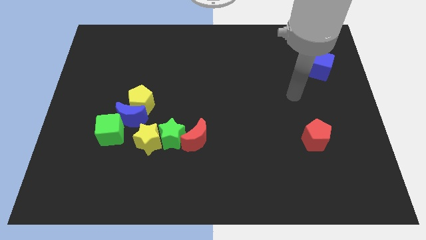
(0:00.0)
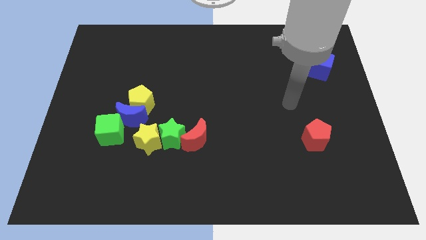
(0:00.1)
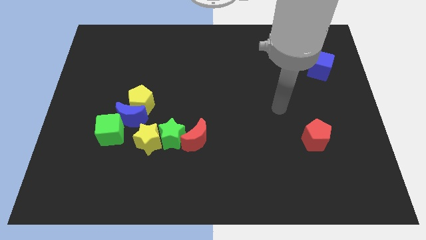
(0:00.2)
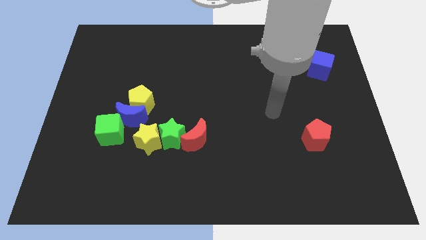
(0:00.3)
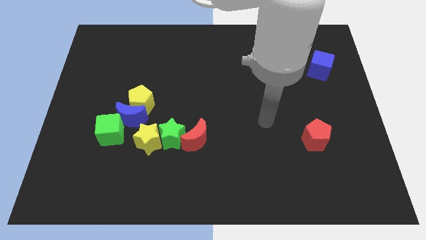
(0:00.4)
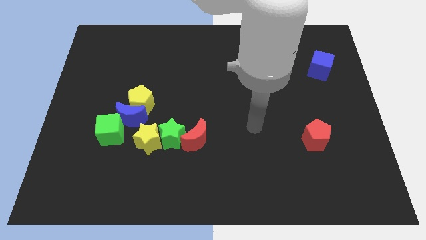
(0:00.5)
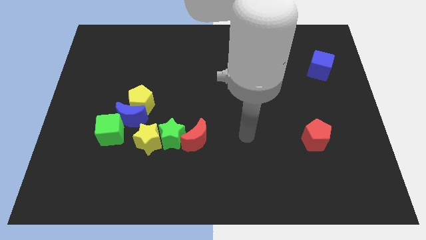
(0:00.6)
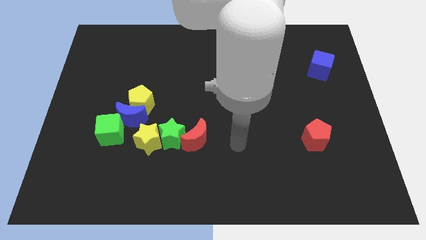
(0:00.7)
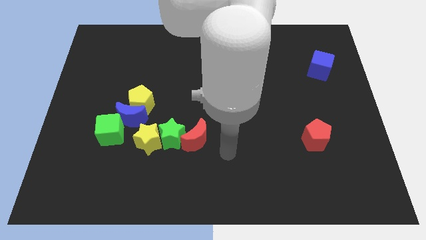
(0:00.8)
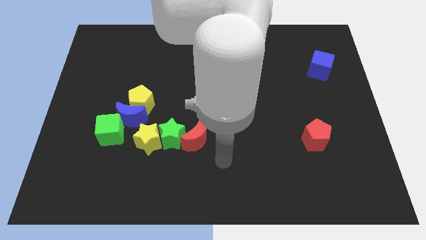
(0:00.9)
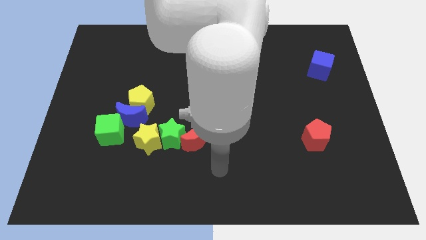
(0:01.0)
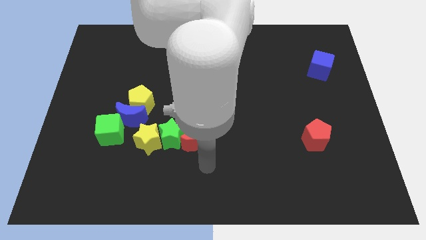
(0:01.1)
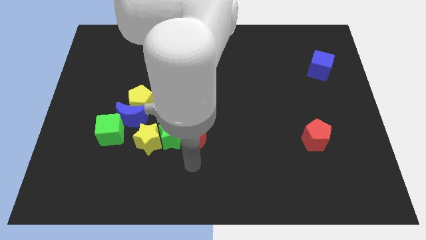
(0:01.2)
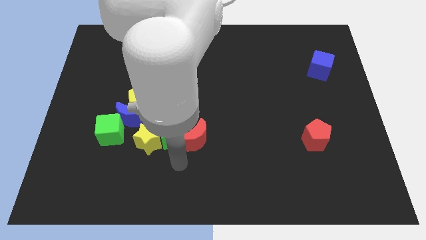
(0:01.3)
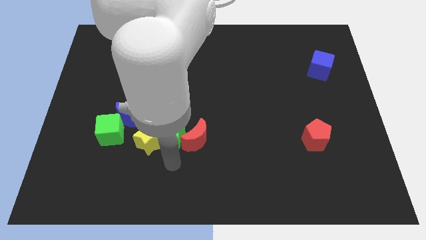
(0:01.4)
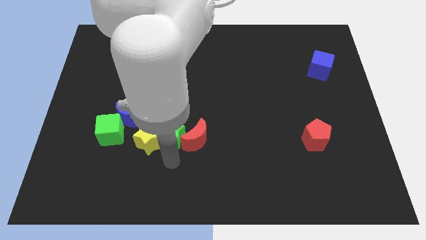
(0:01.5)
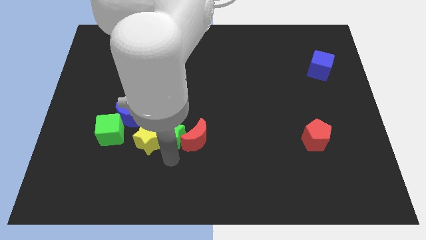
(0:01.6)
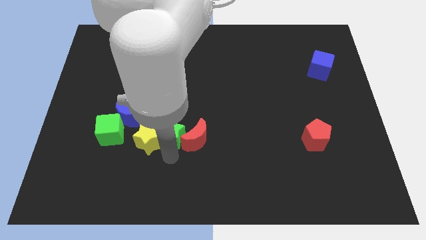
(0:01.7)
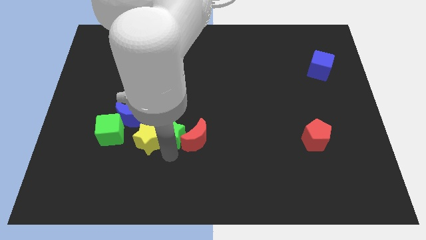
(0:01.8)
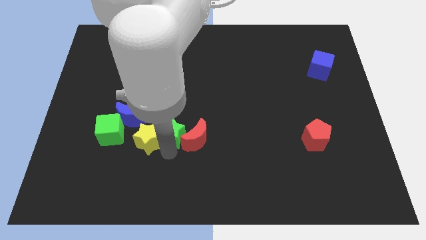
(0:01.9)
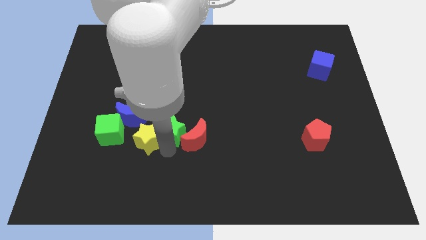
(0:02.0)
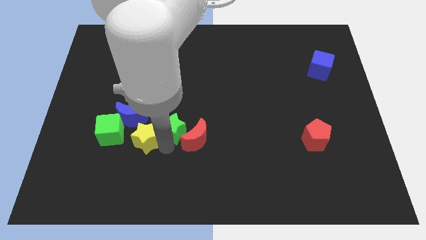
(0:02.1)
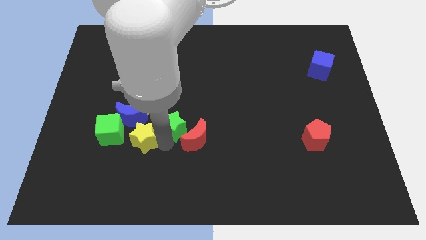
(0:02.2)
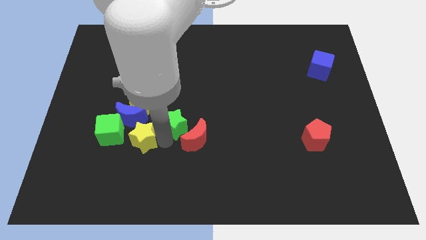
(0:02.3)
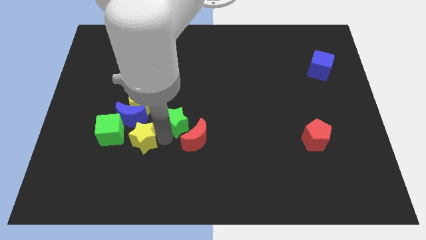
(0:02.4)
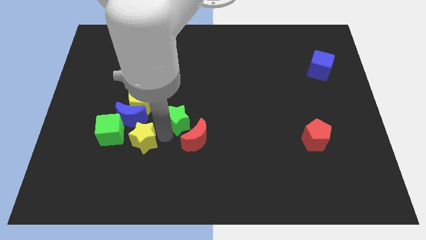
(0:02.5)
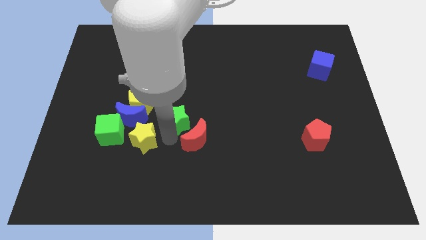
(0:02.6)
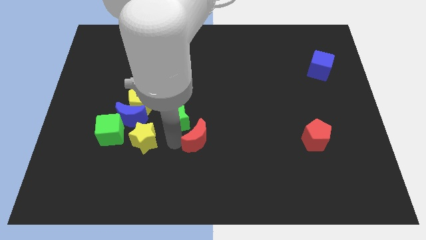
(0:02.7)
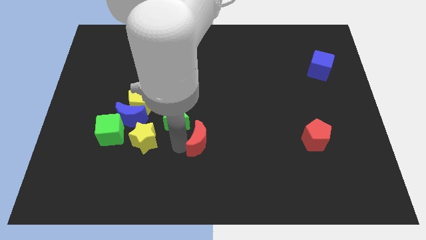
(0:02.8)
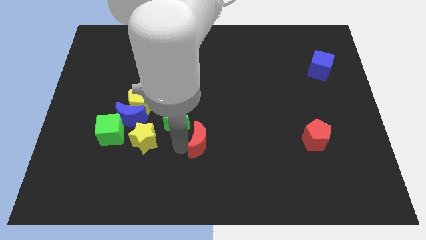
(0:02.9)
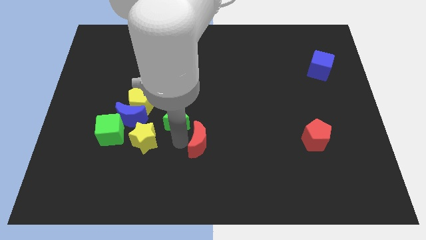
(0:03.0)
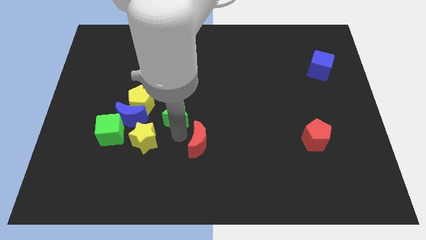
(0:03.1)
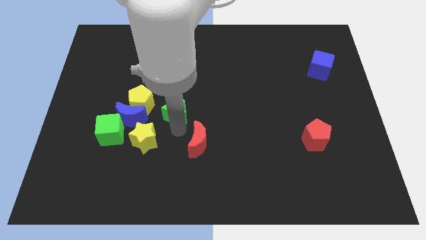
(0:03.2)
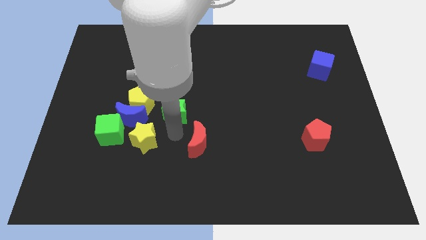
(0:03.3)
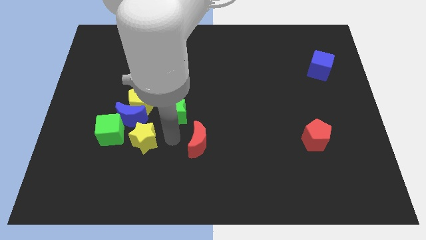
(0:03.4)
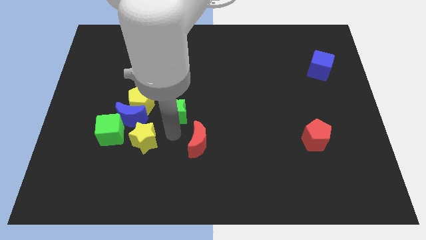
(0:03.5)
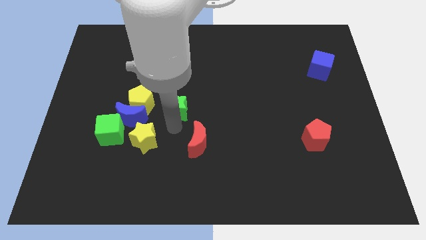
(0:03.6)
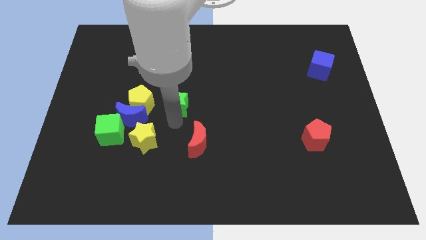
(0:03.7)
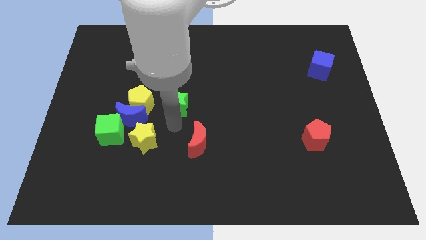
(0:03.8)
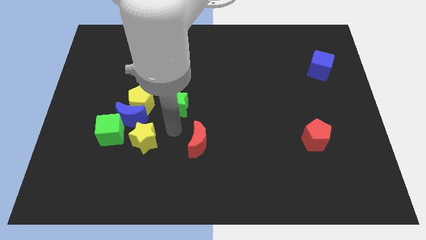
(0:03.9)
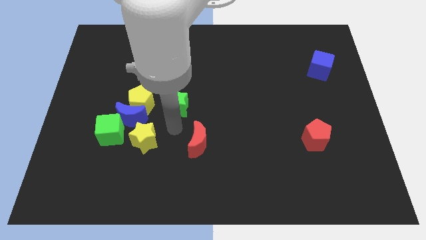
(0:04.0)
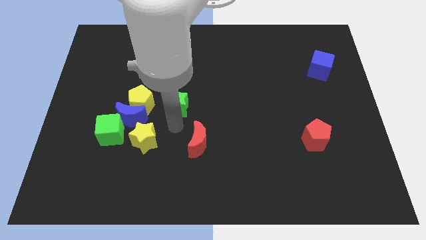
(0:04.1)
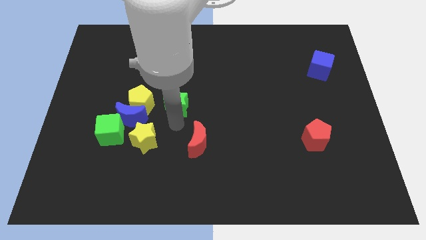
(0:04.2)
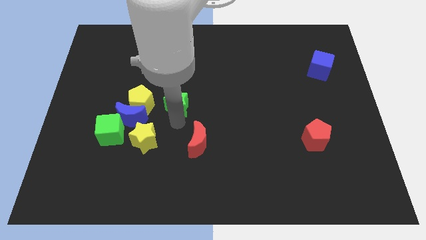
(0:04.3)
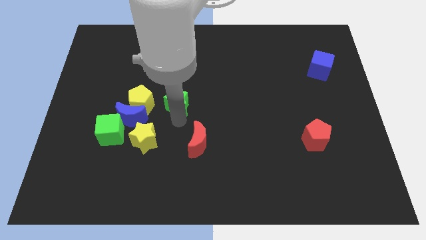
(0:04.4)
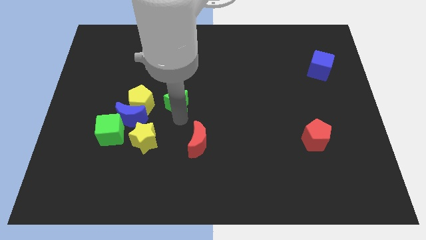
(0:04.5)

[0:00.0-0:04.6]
move the green star away from the yellow star and red moon

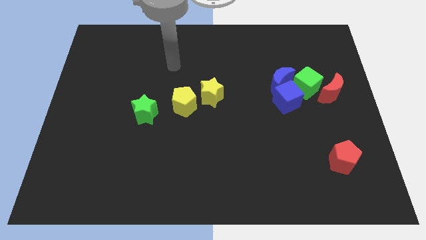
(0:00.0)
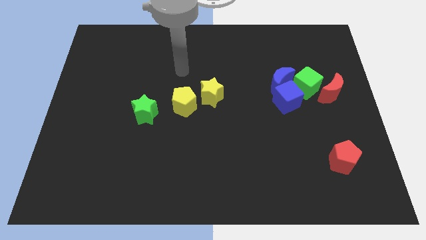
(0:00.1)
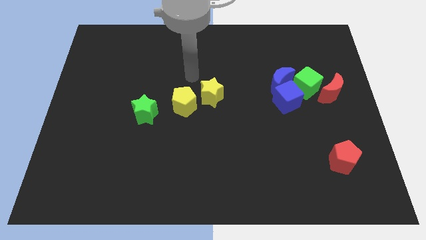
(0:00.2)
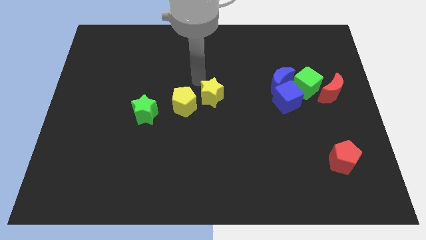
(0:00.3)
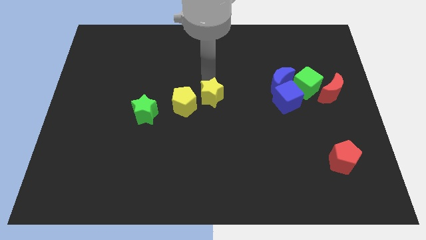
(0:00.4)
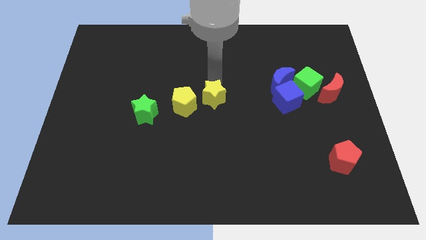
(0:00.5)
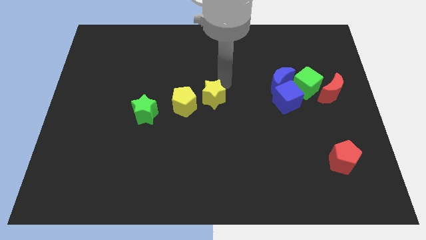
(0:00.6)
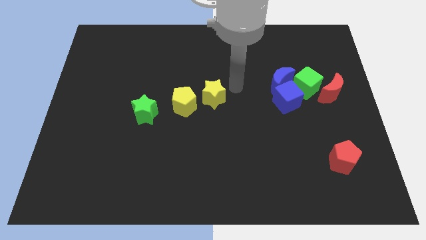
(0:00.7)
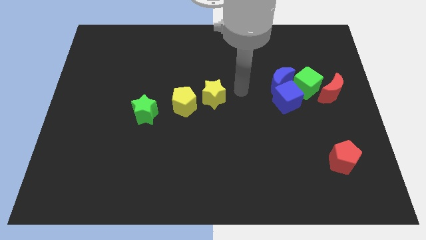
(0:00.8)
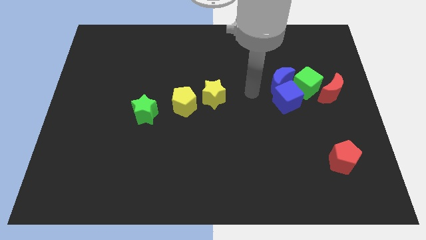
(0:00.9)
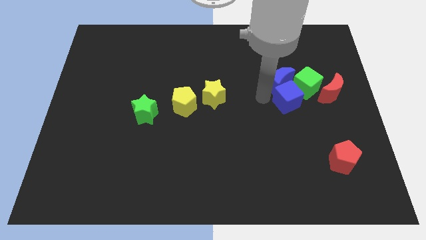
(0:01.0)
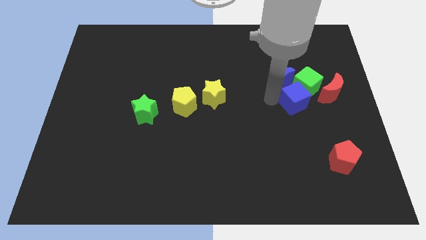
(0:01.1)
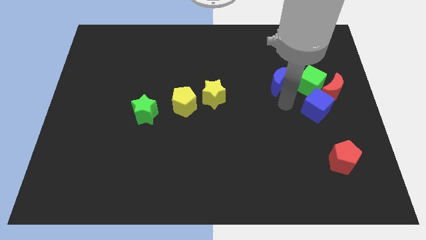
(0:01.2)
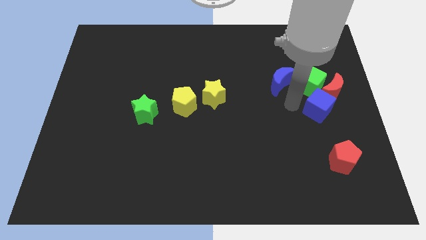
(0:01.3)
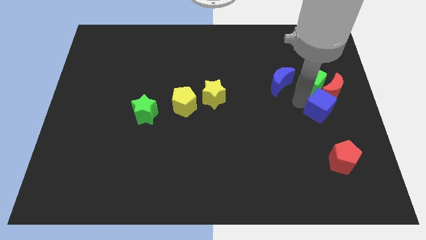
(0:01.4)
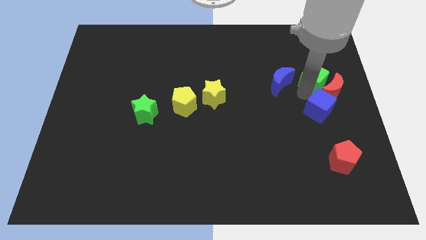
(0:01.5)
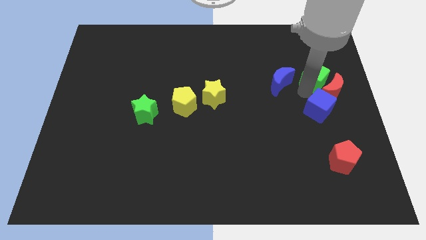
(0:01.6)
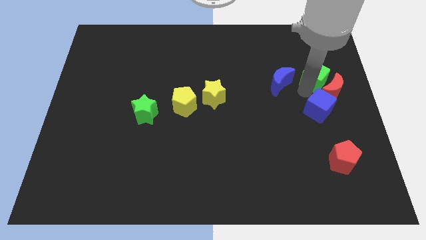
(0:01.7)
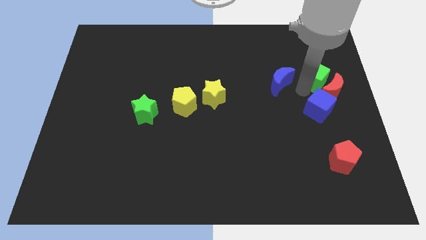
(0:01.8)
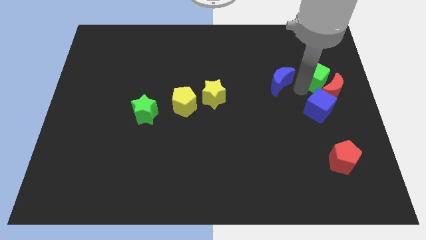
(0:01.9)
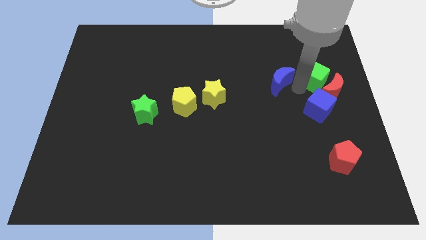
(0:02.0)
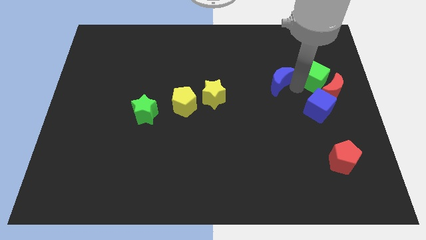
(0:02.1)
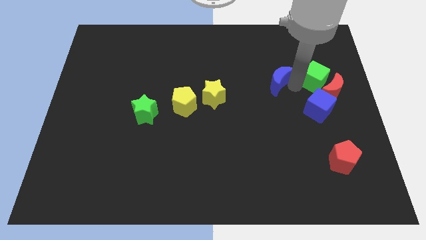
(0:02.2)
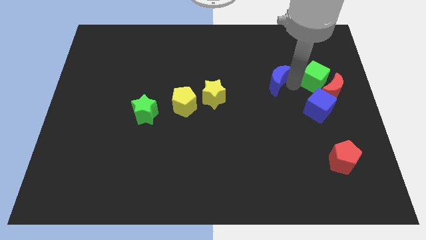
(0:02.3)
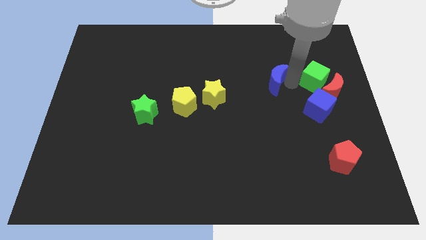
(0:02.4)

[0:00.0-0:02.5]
move the blue moon away from the blue cube and green cube

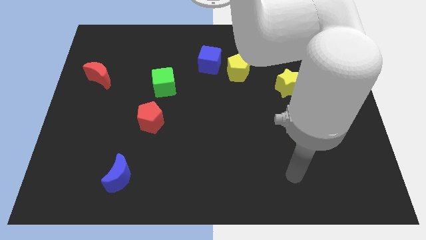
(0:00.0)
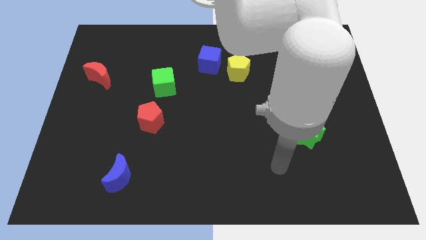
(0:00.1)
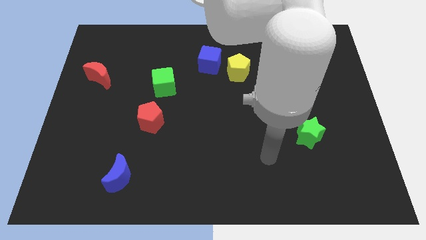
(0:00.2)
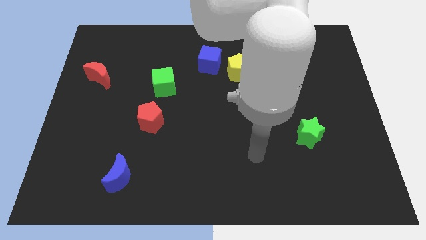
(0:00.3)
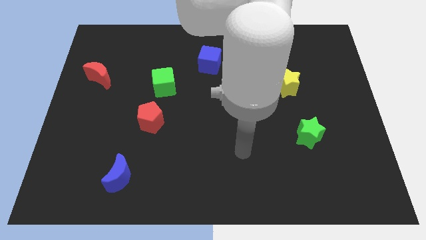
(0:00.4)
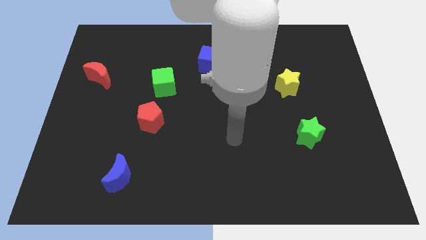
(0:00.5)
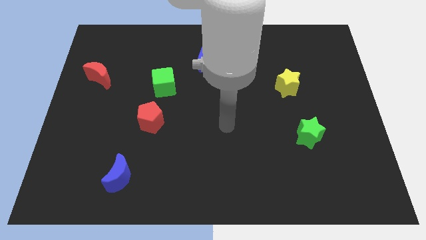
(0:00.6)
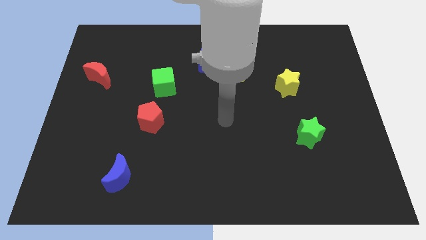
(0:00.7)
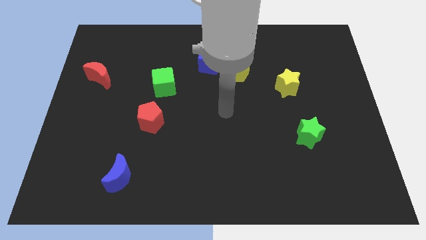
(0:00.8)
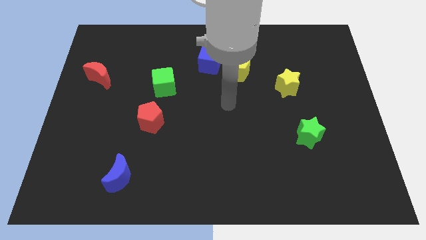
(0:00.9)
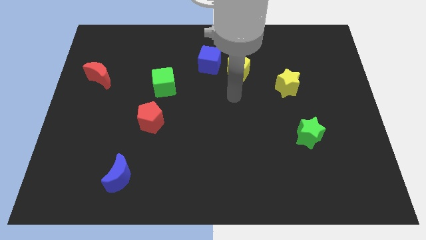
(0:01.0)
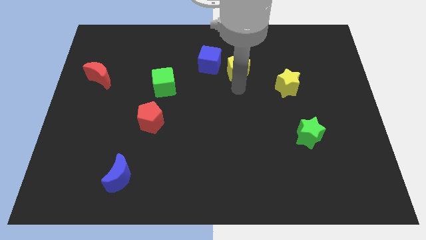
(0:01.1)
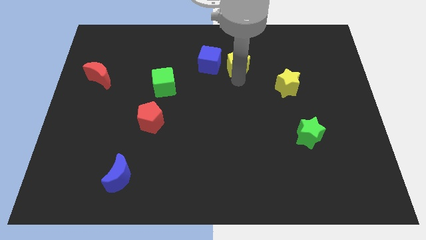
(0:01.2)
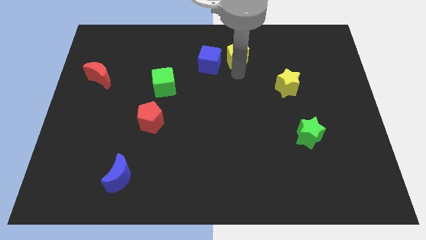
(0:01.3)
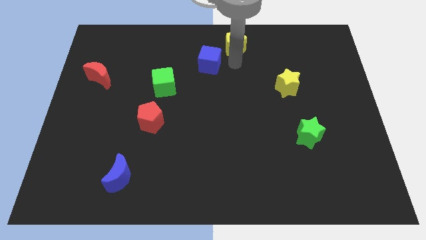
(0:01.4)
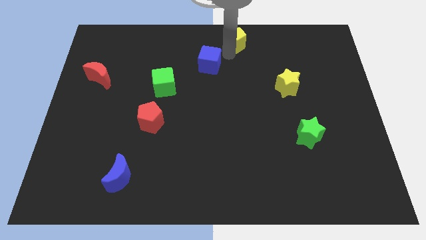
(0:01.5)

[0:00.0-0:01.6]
pull the blue cube apart from the yellow pentagon

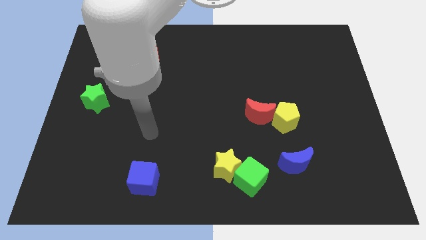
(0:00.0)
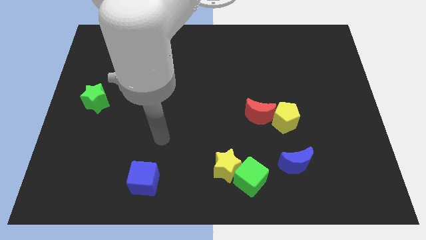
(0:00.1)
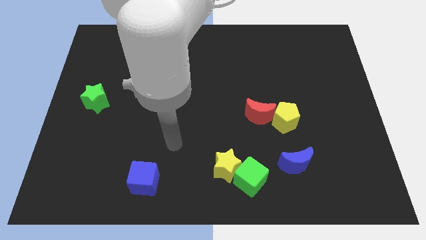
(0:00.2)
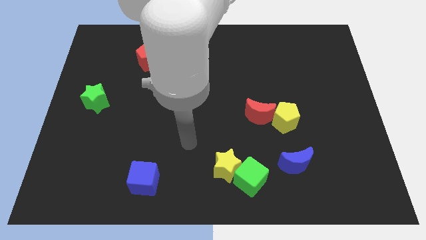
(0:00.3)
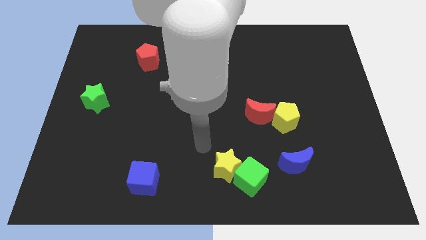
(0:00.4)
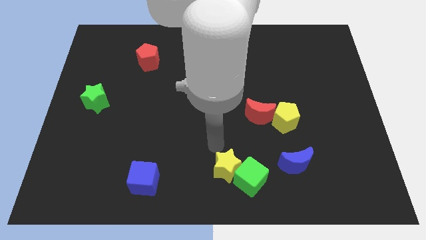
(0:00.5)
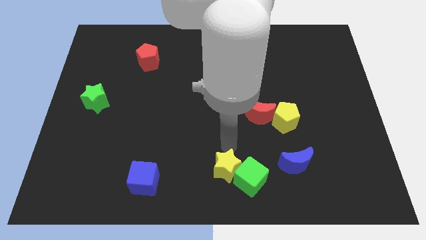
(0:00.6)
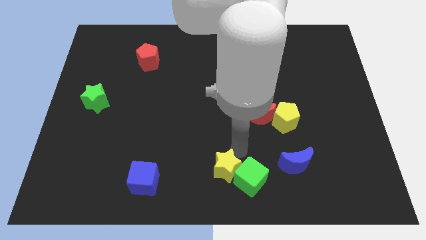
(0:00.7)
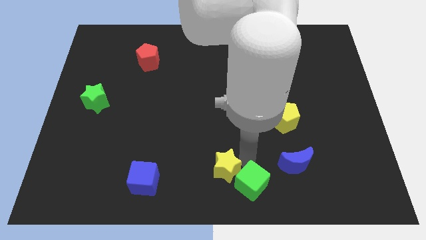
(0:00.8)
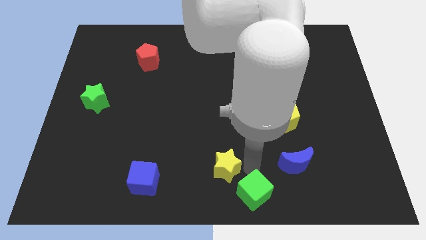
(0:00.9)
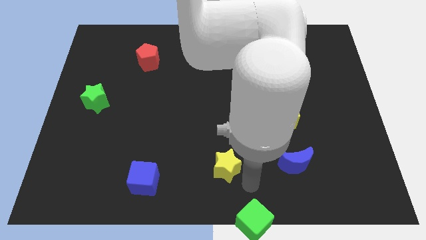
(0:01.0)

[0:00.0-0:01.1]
move the yellow star away from the green cube
